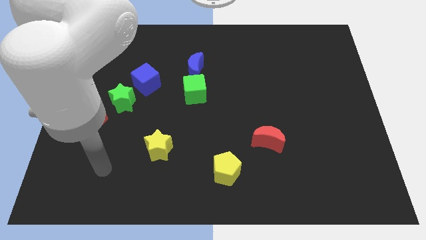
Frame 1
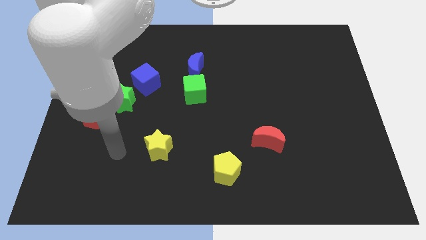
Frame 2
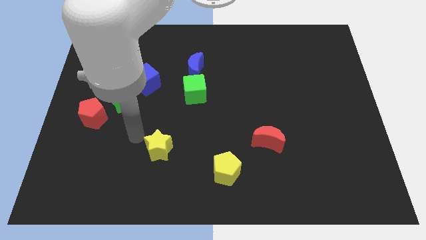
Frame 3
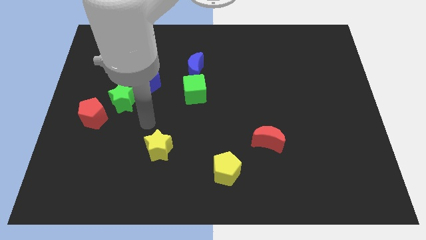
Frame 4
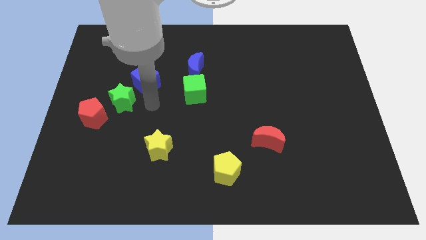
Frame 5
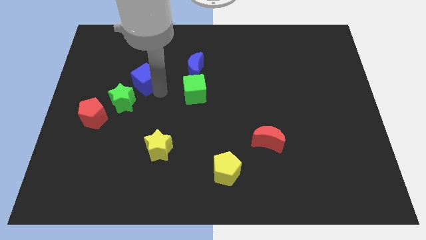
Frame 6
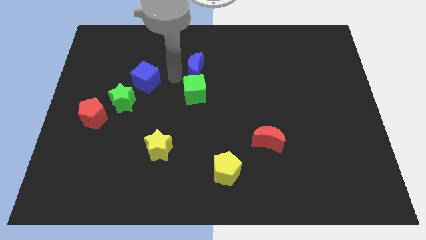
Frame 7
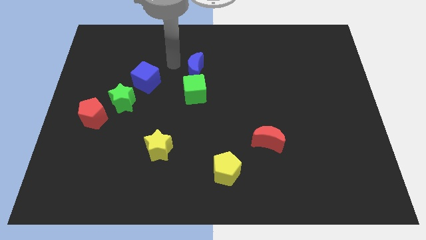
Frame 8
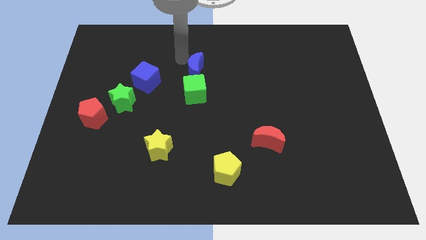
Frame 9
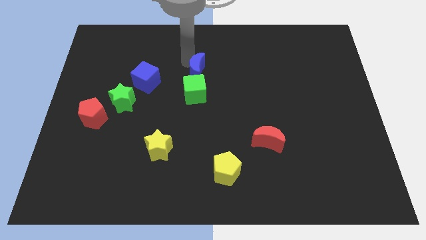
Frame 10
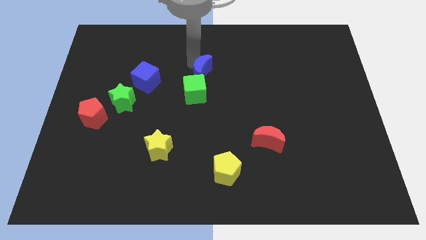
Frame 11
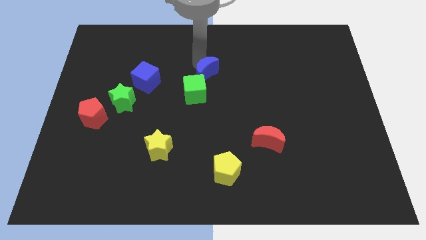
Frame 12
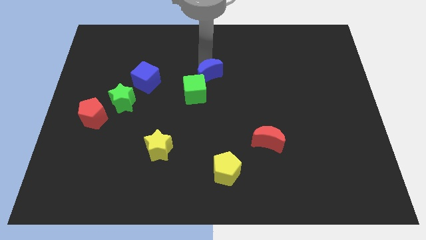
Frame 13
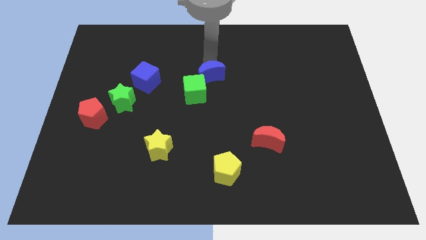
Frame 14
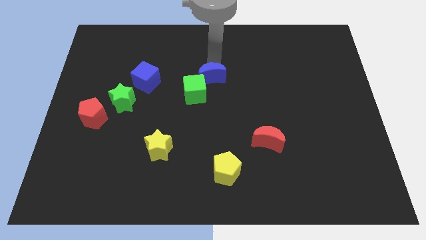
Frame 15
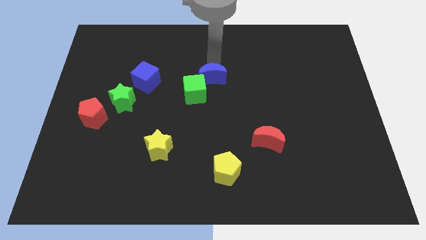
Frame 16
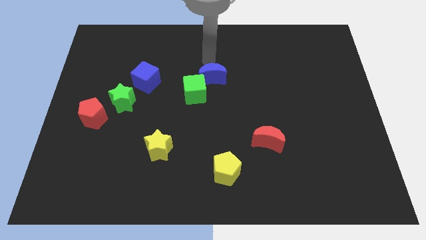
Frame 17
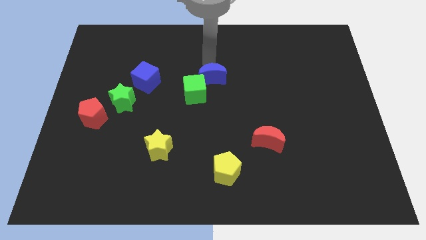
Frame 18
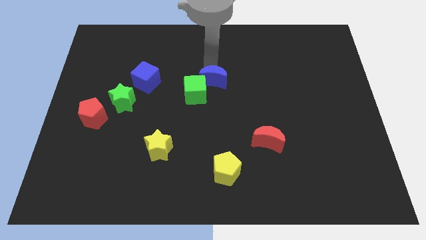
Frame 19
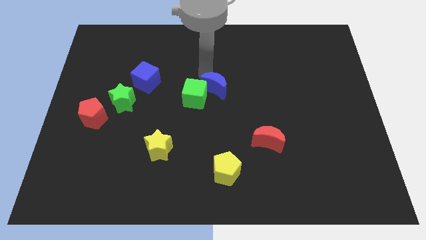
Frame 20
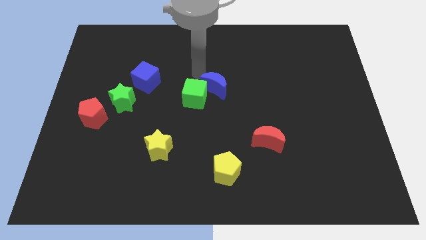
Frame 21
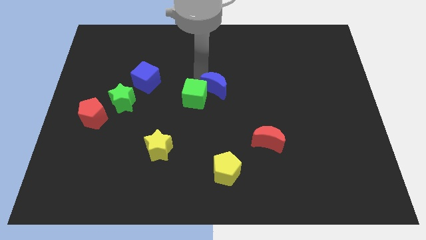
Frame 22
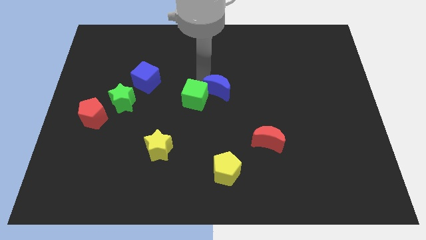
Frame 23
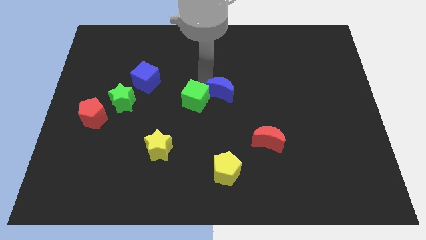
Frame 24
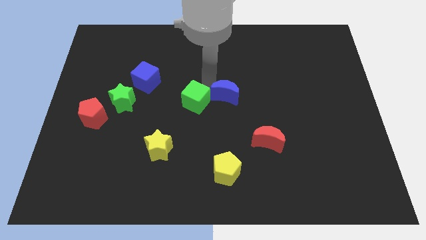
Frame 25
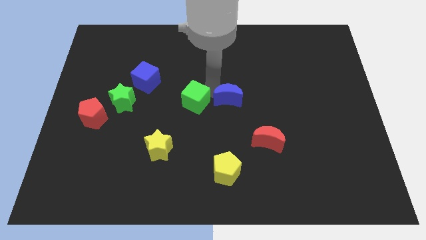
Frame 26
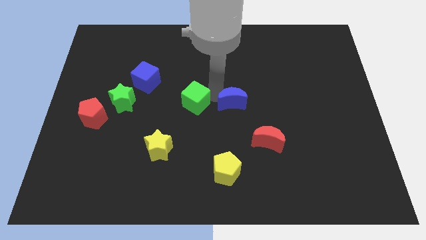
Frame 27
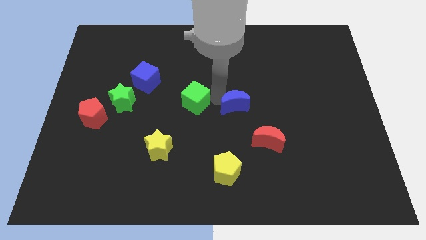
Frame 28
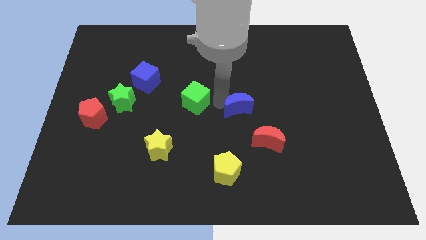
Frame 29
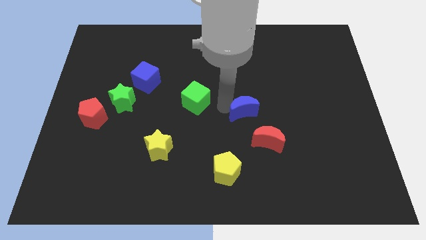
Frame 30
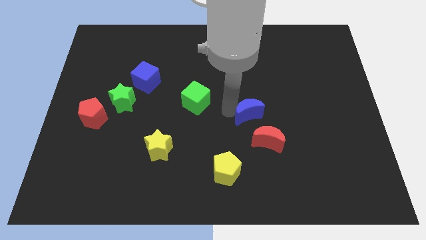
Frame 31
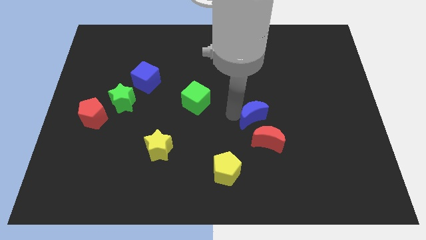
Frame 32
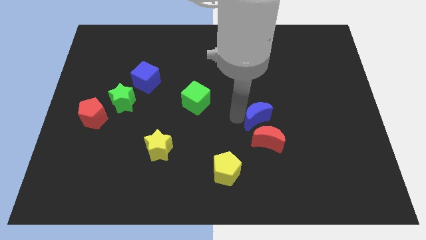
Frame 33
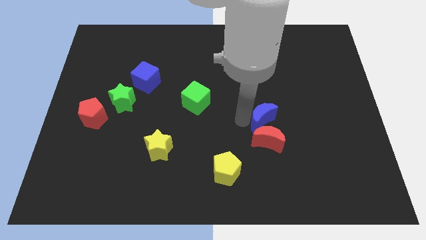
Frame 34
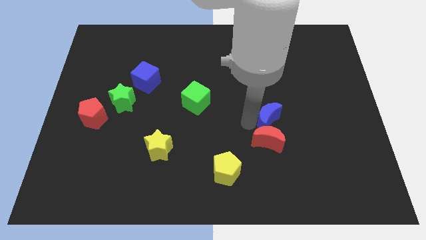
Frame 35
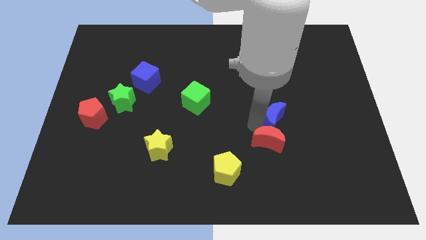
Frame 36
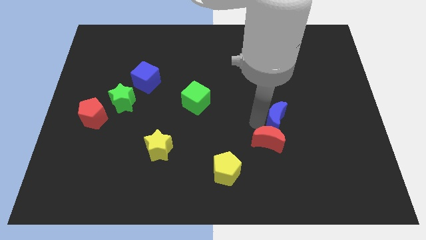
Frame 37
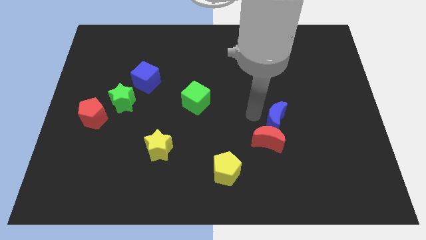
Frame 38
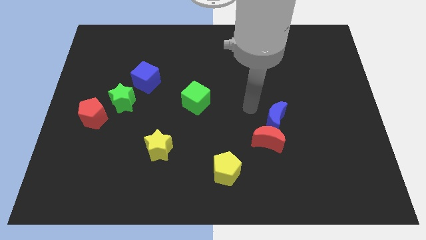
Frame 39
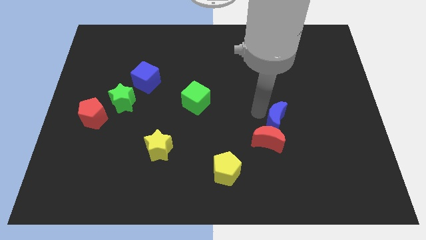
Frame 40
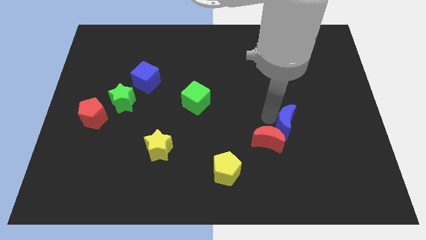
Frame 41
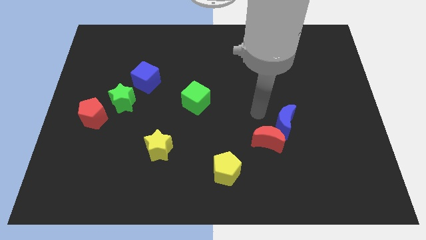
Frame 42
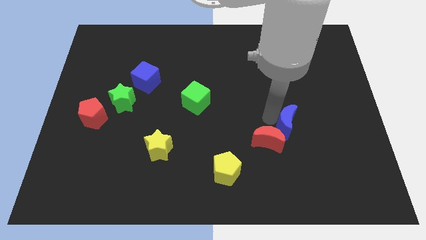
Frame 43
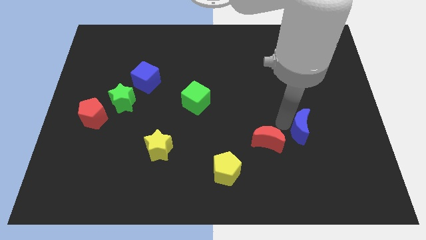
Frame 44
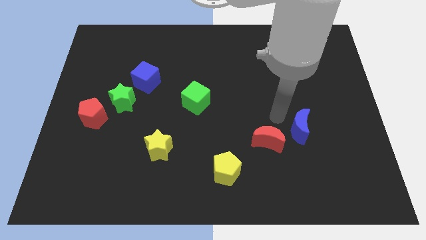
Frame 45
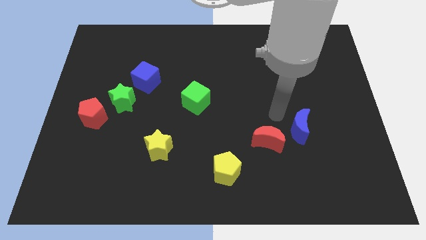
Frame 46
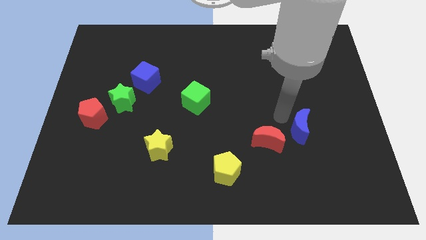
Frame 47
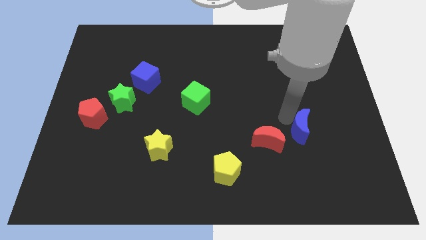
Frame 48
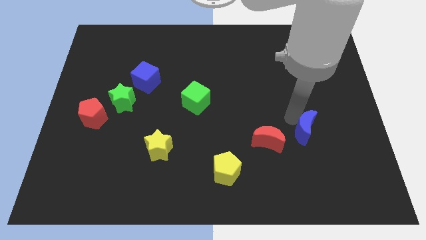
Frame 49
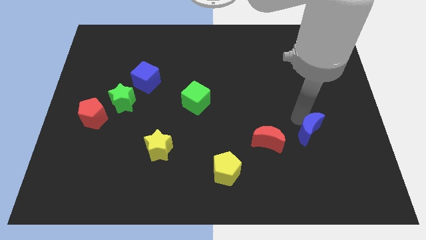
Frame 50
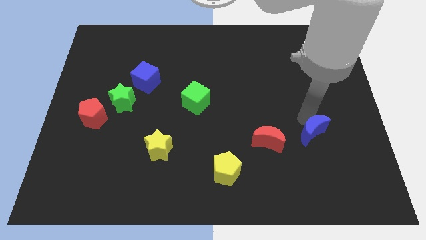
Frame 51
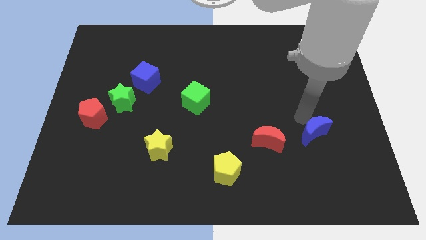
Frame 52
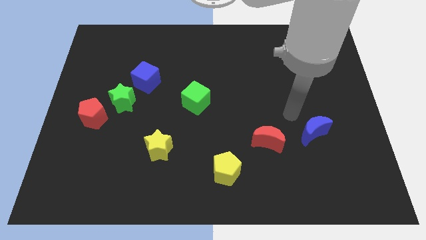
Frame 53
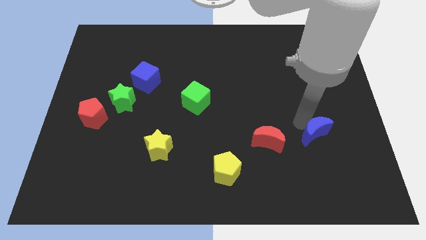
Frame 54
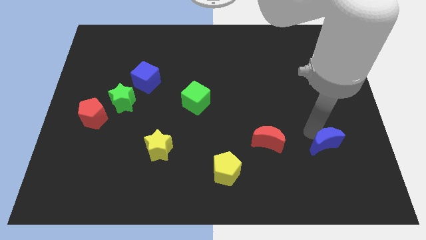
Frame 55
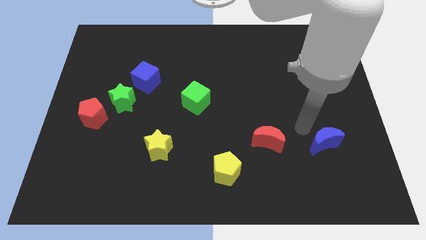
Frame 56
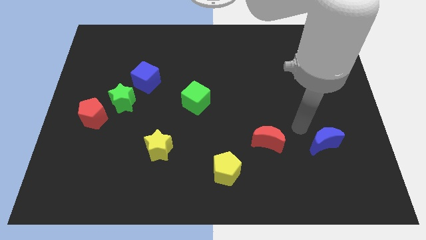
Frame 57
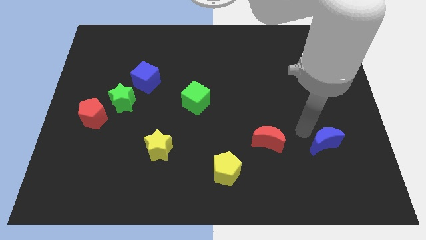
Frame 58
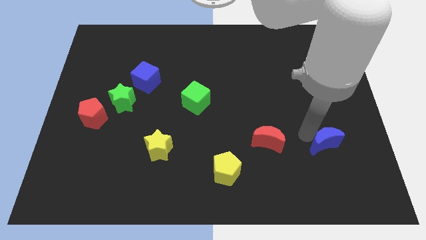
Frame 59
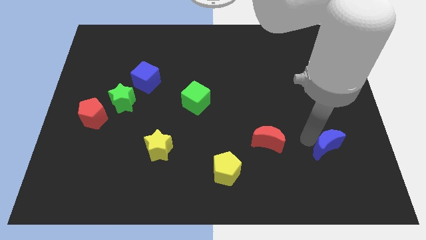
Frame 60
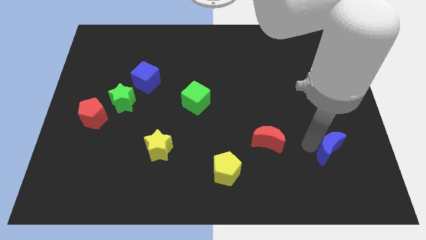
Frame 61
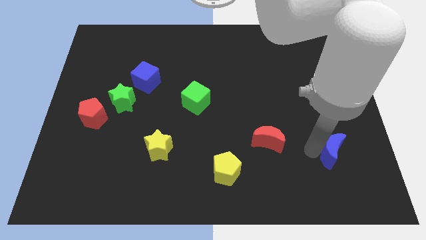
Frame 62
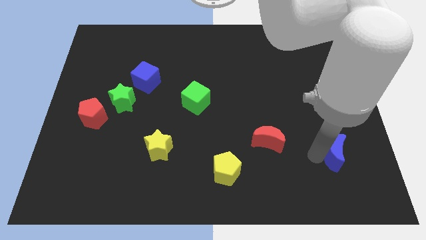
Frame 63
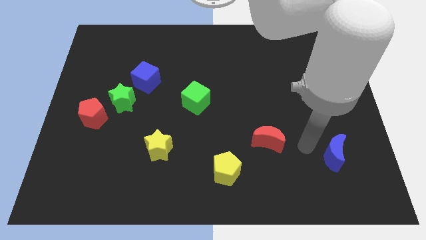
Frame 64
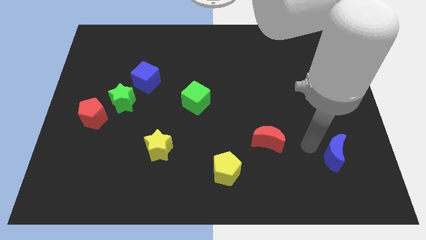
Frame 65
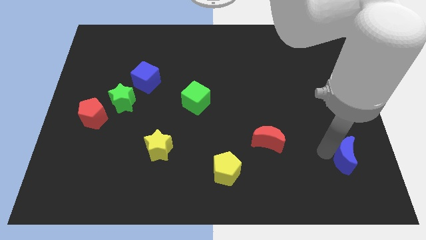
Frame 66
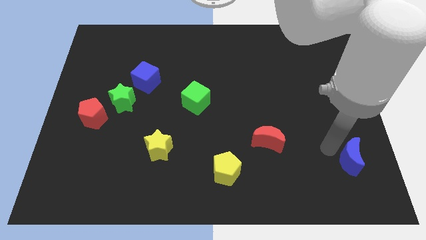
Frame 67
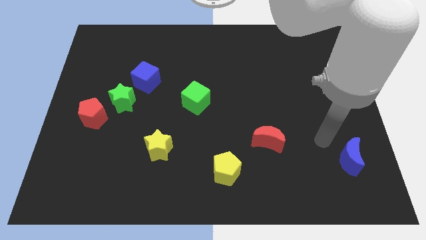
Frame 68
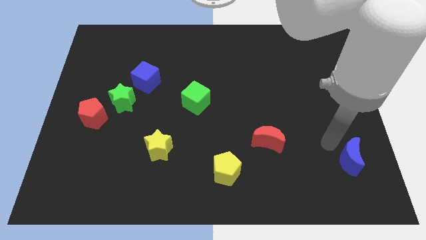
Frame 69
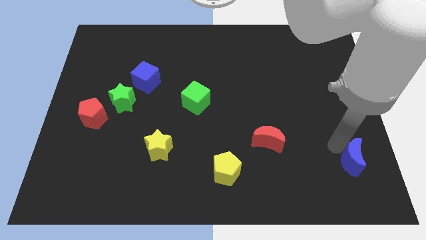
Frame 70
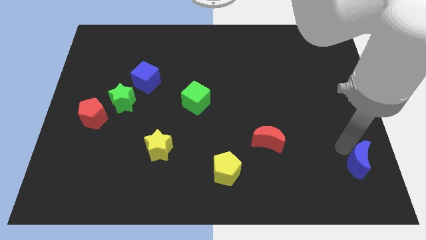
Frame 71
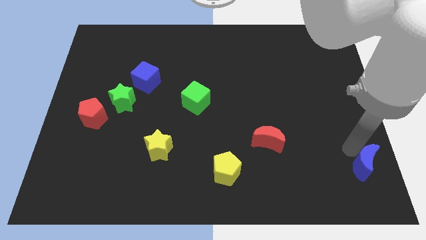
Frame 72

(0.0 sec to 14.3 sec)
put the blue moon to the lower right corner
